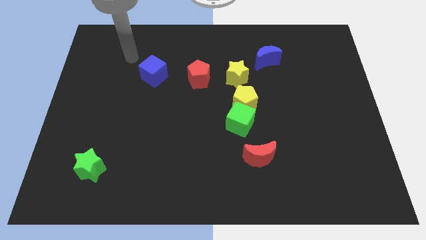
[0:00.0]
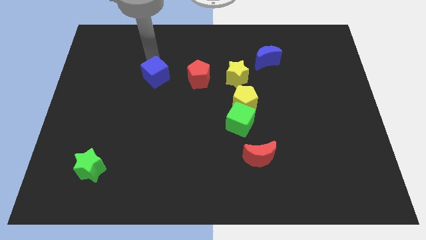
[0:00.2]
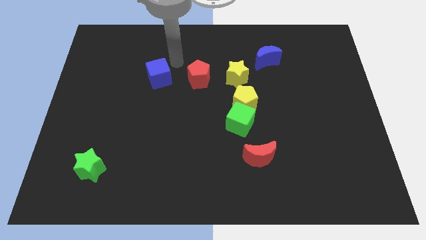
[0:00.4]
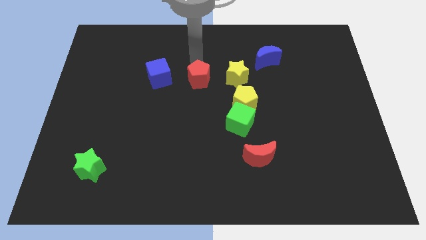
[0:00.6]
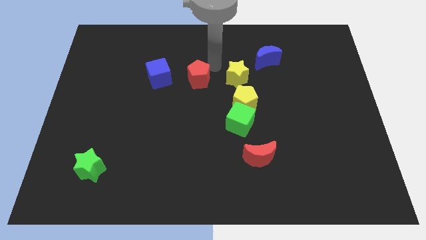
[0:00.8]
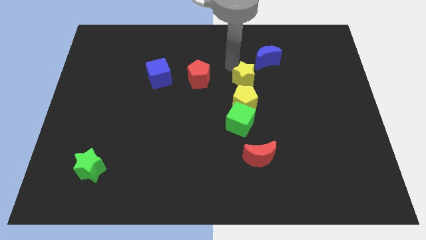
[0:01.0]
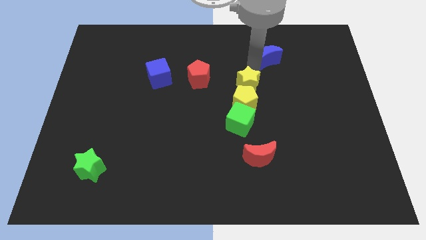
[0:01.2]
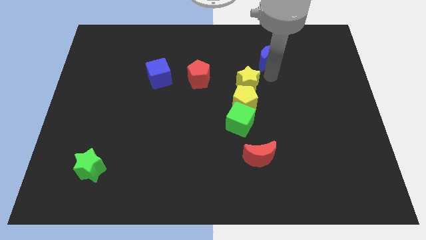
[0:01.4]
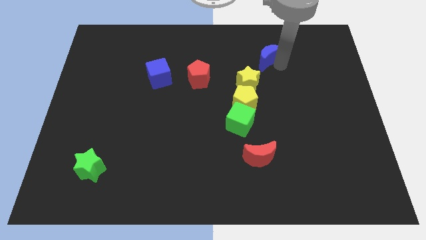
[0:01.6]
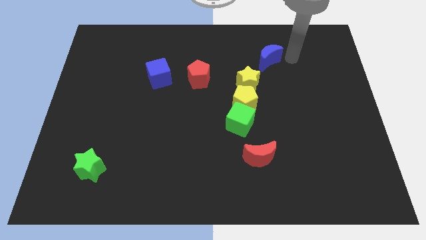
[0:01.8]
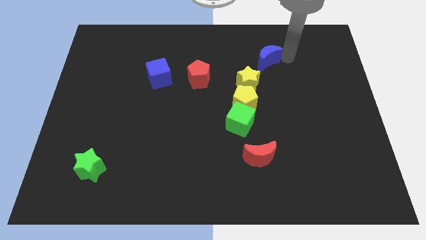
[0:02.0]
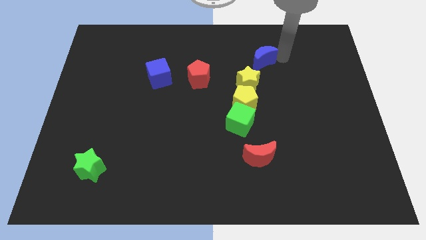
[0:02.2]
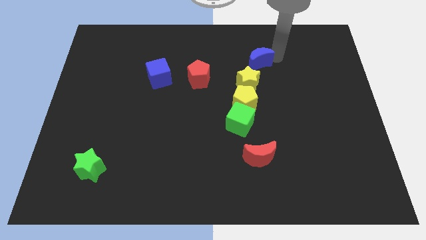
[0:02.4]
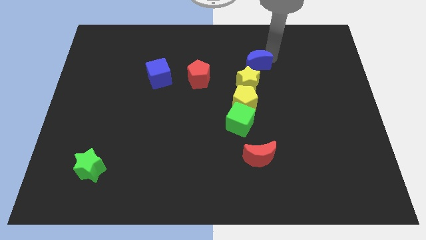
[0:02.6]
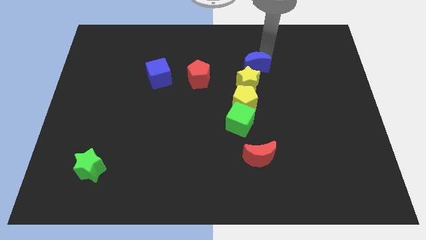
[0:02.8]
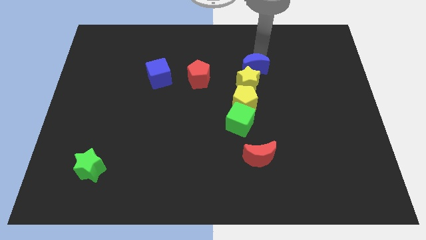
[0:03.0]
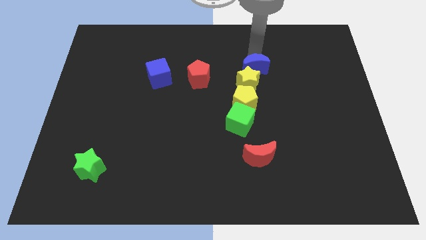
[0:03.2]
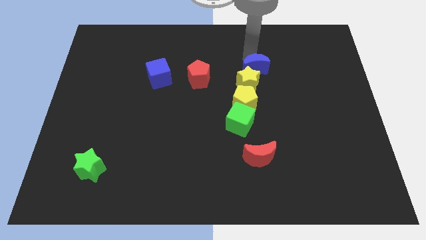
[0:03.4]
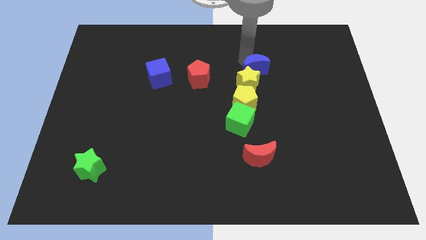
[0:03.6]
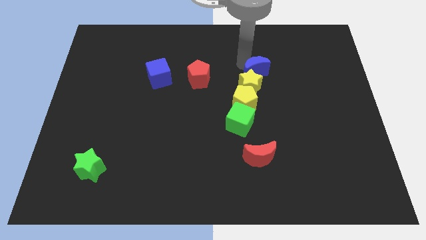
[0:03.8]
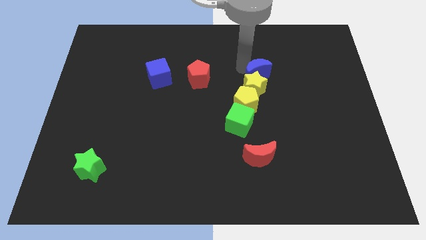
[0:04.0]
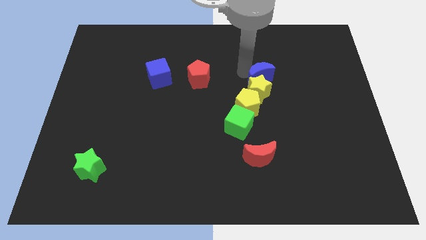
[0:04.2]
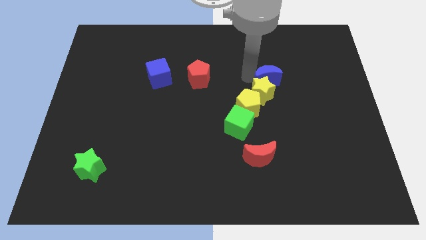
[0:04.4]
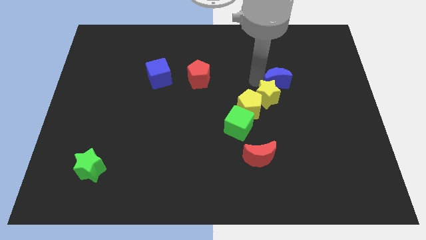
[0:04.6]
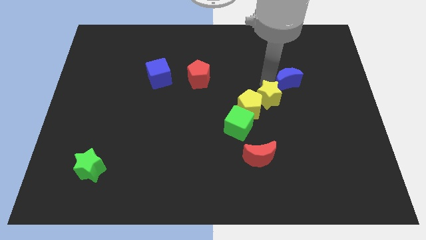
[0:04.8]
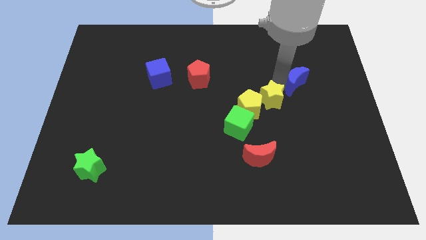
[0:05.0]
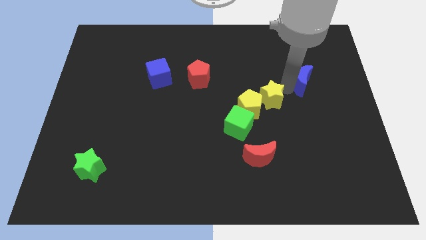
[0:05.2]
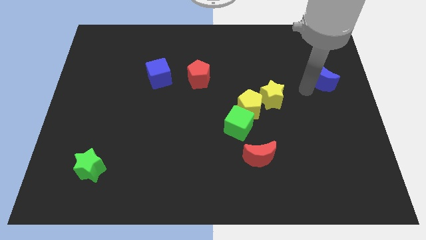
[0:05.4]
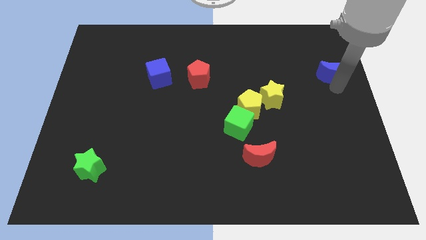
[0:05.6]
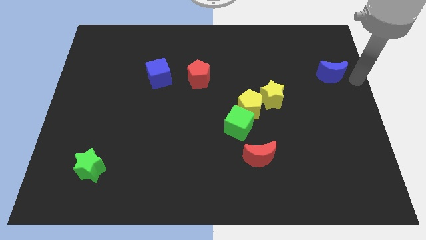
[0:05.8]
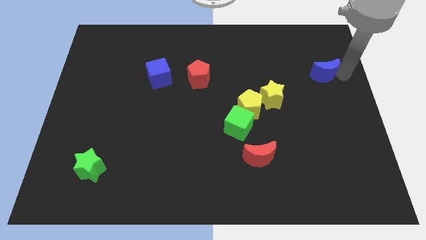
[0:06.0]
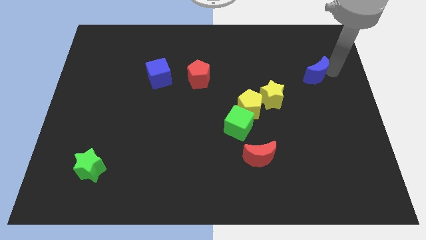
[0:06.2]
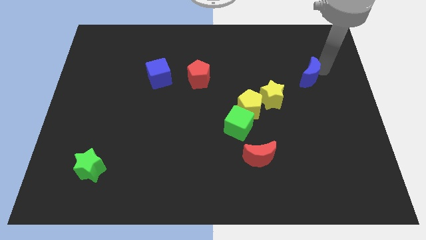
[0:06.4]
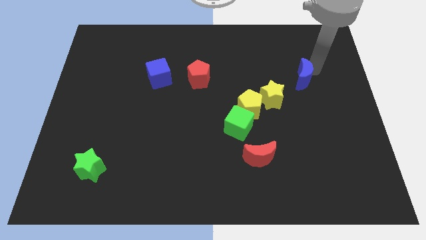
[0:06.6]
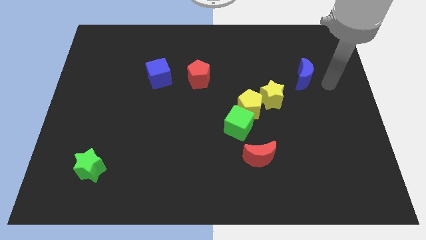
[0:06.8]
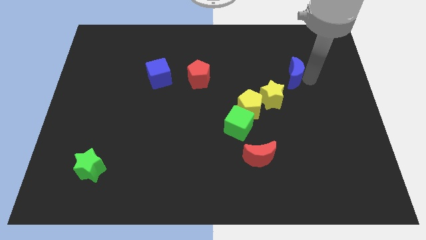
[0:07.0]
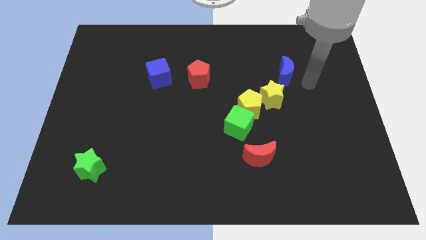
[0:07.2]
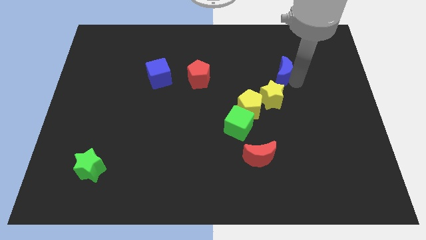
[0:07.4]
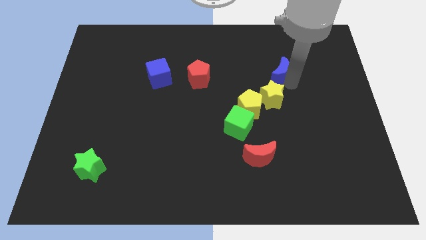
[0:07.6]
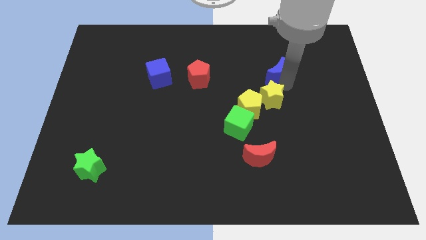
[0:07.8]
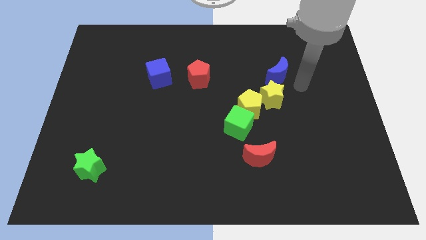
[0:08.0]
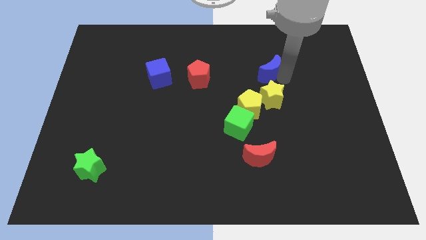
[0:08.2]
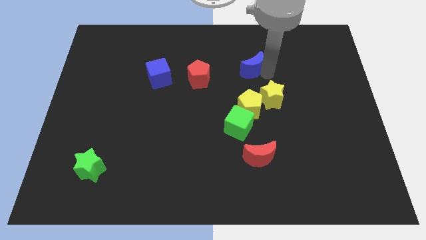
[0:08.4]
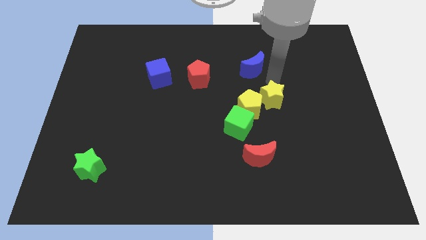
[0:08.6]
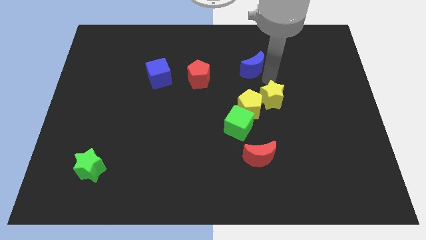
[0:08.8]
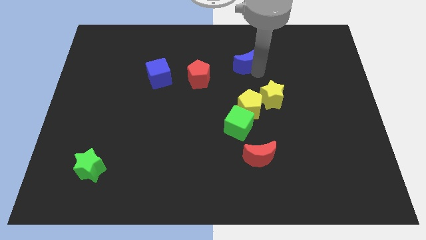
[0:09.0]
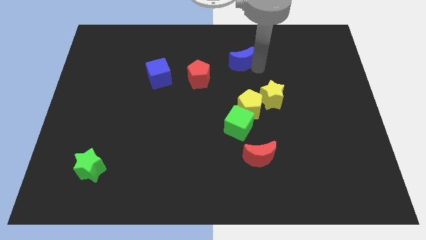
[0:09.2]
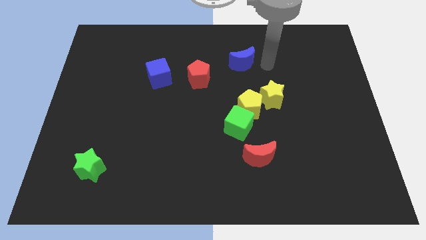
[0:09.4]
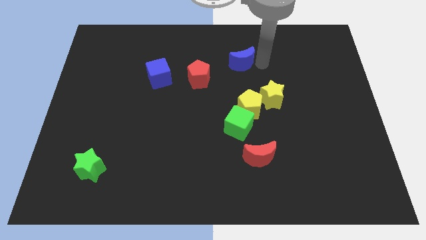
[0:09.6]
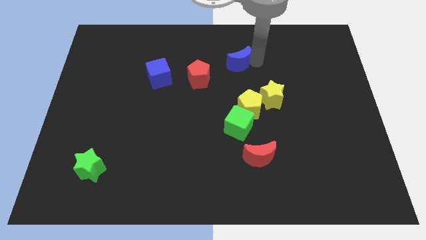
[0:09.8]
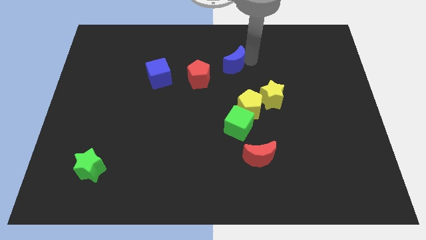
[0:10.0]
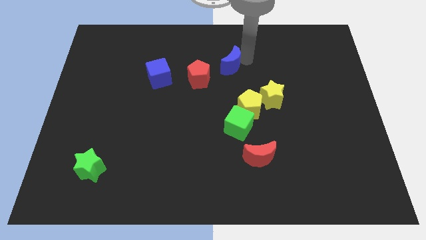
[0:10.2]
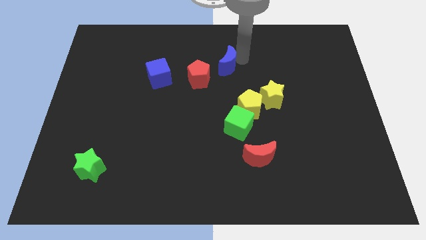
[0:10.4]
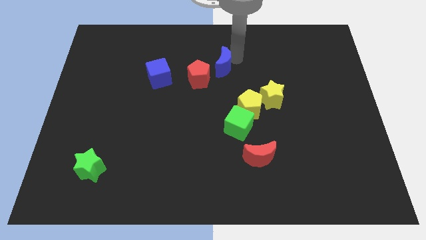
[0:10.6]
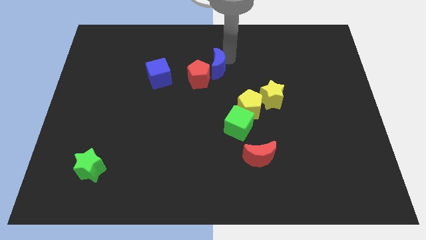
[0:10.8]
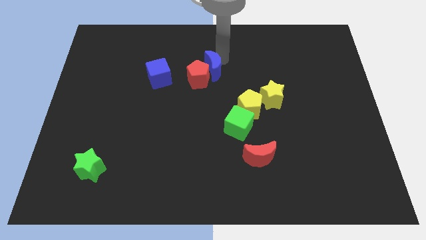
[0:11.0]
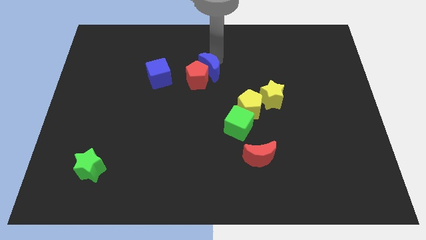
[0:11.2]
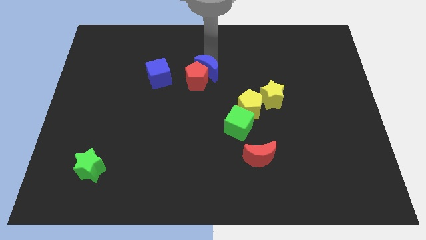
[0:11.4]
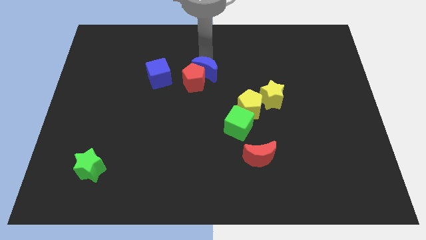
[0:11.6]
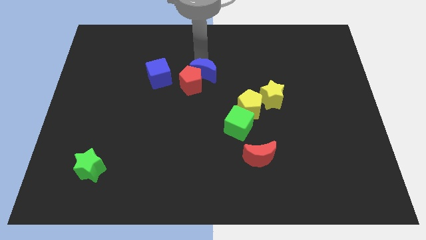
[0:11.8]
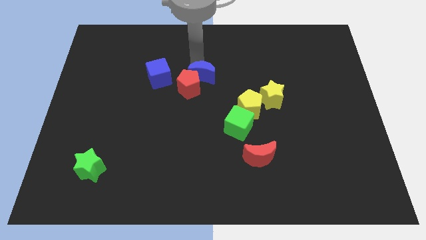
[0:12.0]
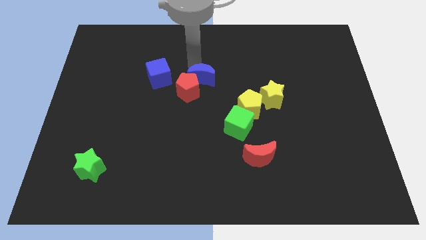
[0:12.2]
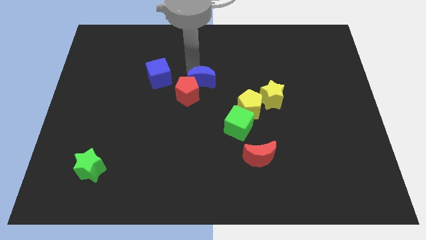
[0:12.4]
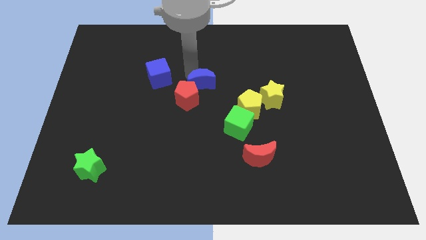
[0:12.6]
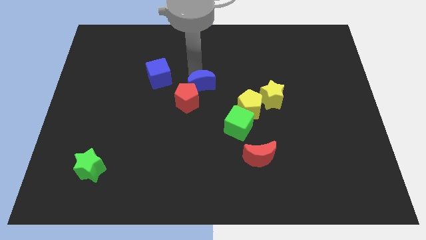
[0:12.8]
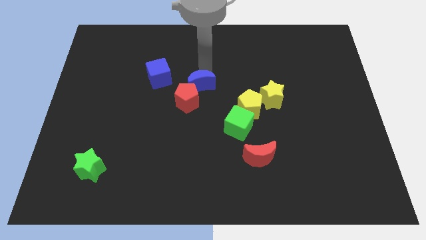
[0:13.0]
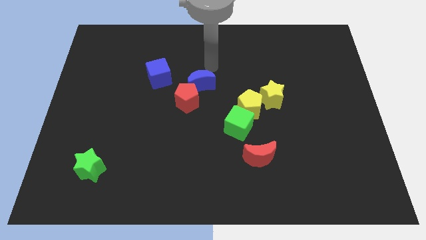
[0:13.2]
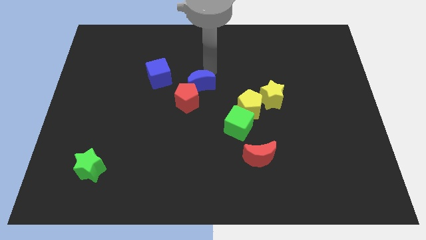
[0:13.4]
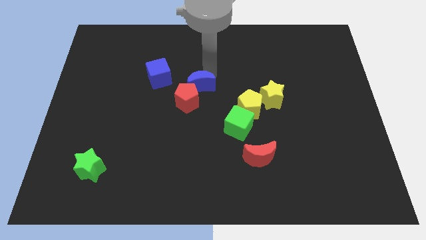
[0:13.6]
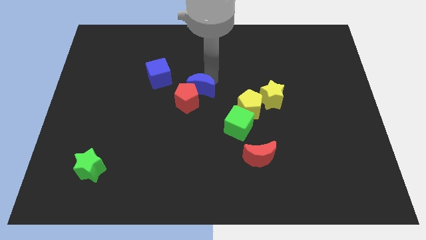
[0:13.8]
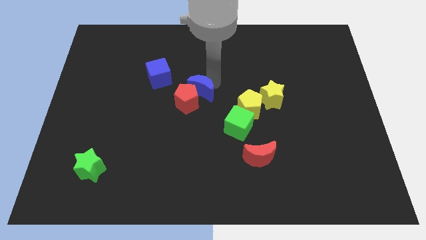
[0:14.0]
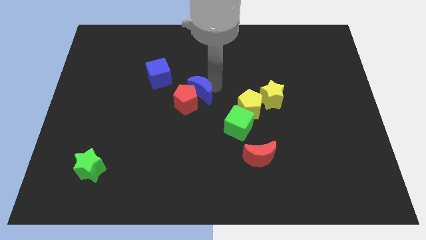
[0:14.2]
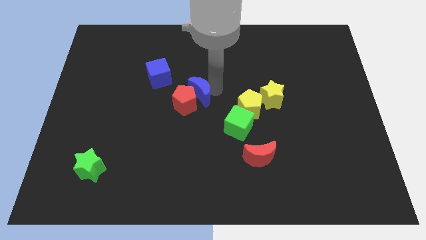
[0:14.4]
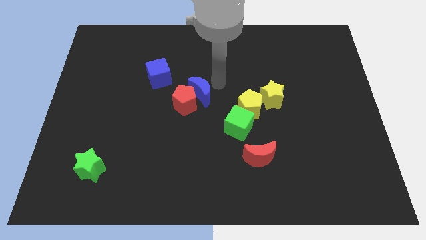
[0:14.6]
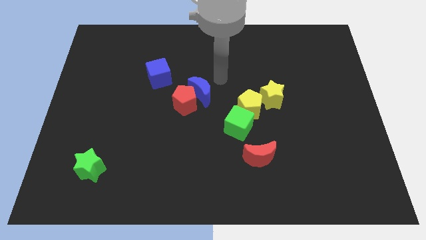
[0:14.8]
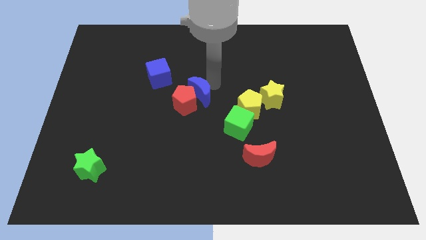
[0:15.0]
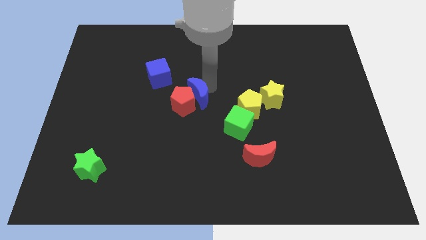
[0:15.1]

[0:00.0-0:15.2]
slide the blue moon diagonally down and to the left

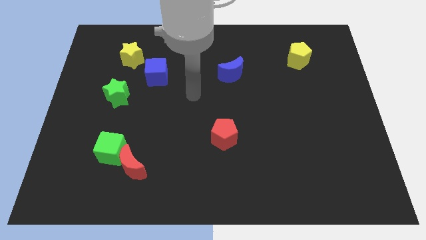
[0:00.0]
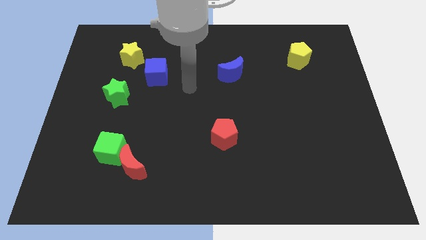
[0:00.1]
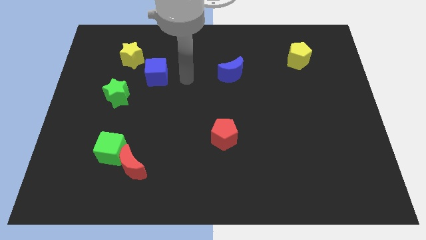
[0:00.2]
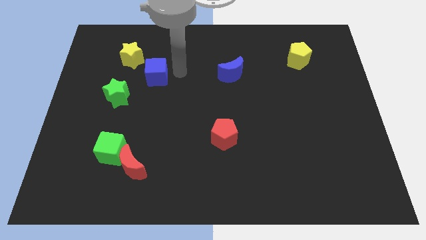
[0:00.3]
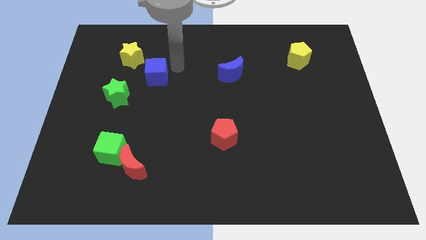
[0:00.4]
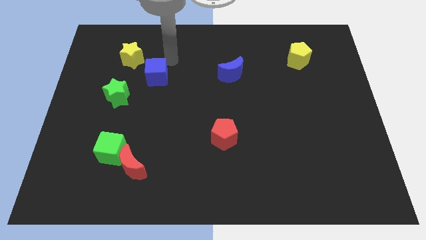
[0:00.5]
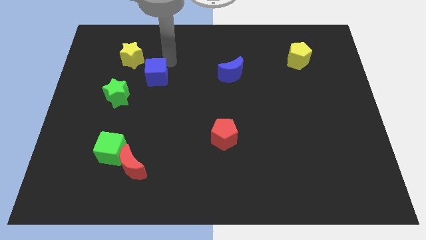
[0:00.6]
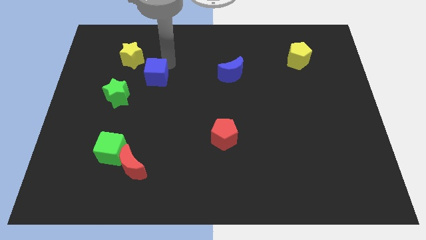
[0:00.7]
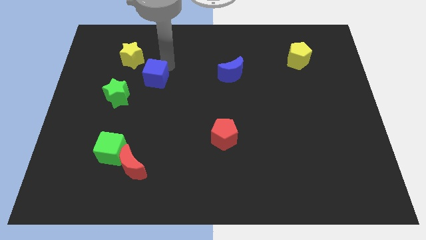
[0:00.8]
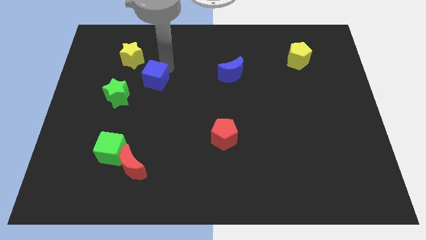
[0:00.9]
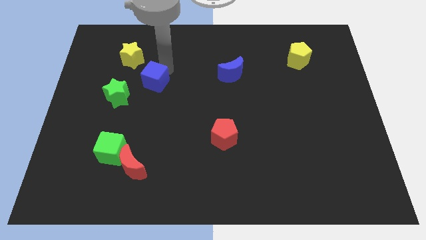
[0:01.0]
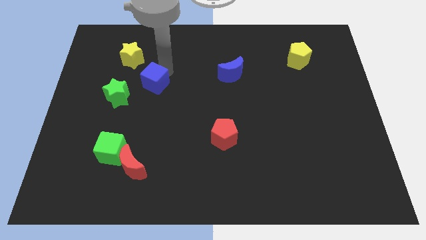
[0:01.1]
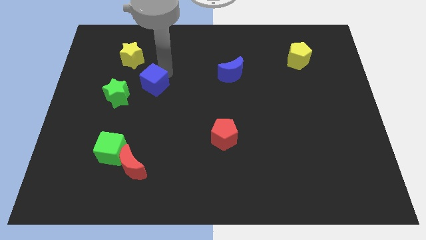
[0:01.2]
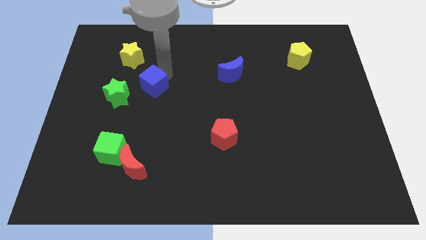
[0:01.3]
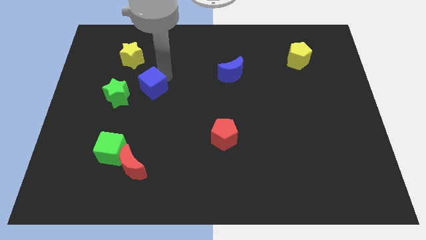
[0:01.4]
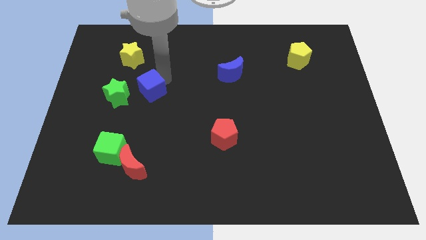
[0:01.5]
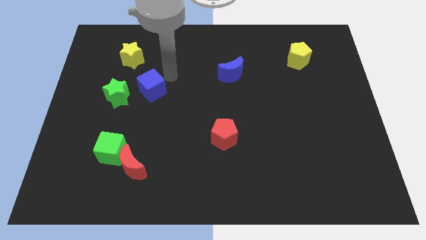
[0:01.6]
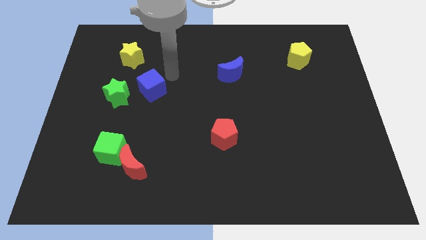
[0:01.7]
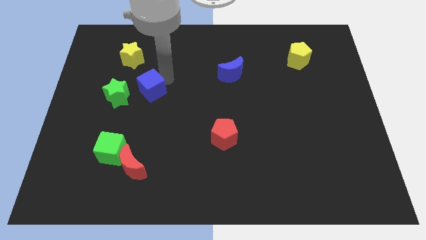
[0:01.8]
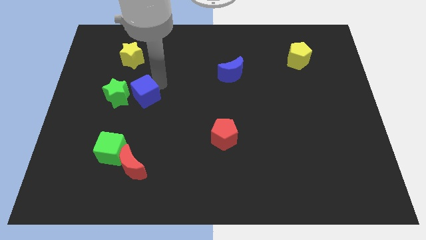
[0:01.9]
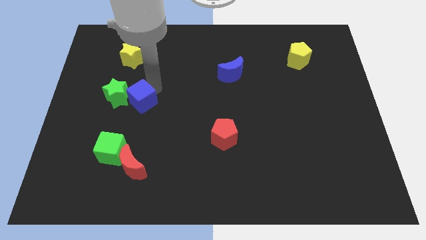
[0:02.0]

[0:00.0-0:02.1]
push the blue cube a little down and then left
